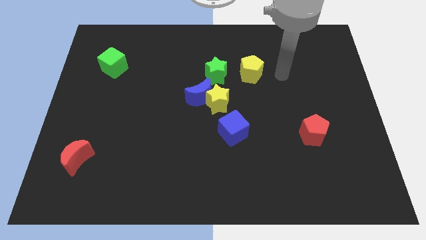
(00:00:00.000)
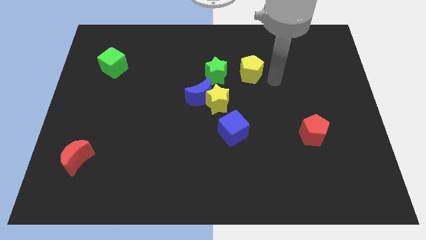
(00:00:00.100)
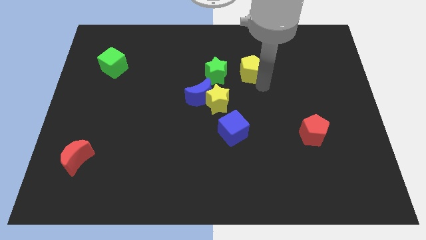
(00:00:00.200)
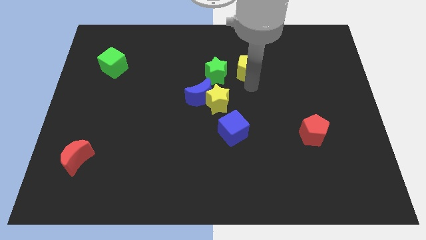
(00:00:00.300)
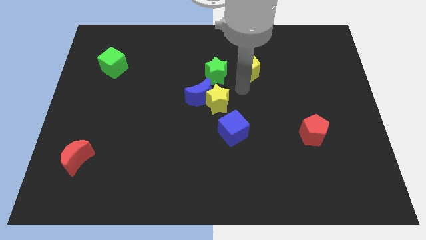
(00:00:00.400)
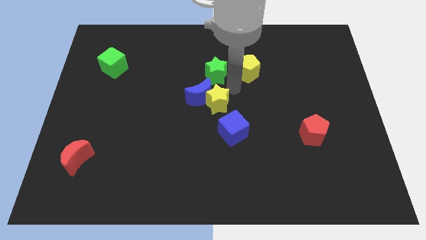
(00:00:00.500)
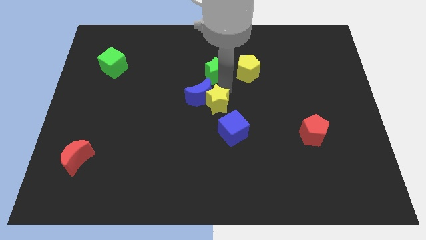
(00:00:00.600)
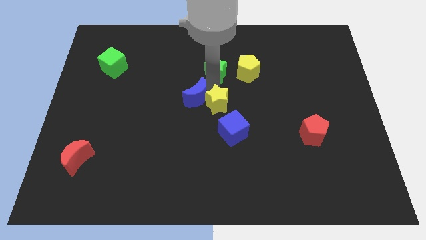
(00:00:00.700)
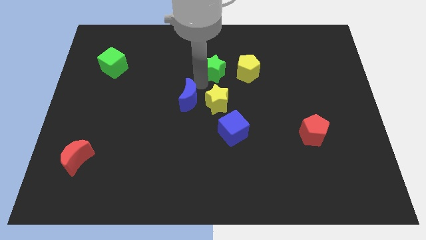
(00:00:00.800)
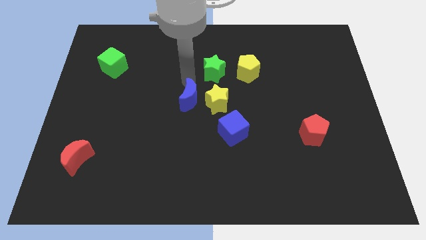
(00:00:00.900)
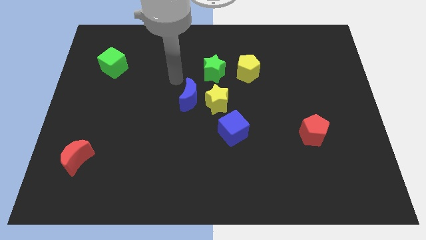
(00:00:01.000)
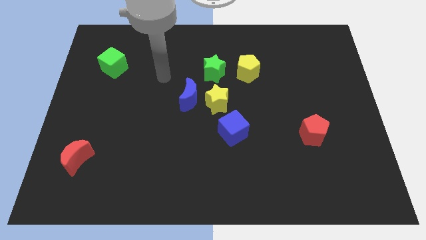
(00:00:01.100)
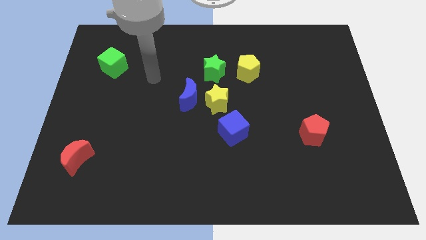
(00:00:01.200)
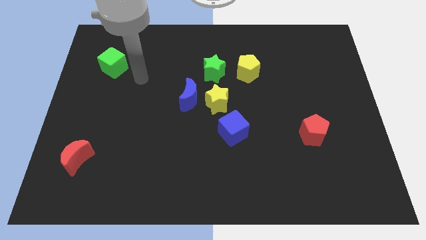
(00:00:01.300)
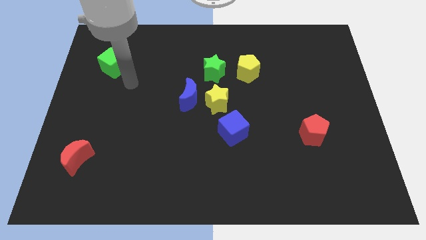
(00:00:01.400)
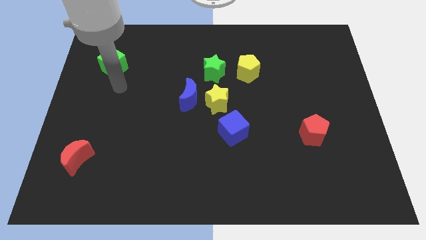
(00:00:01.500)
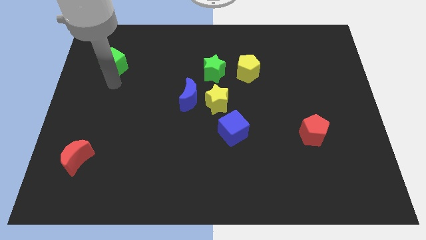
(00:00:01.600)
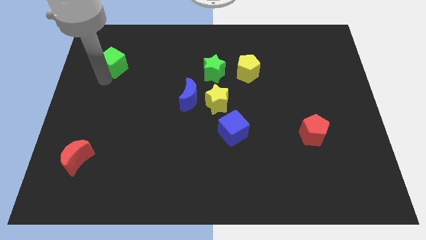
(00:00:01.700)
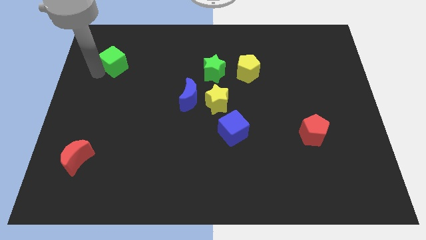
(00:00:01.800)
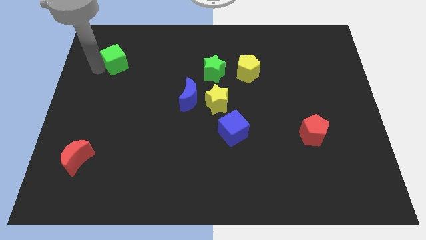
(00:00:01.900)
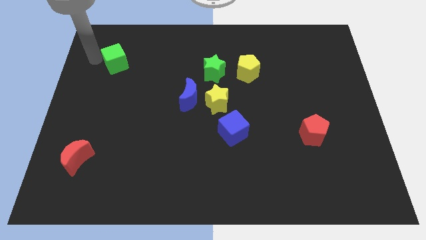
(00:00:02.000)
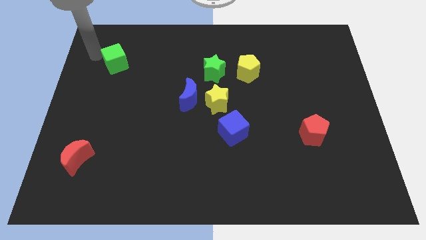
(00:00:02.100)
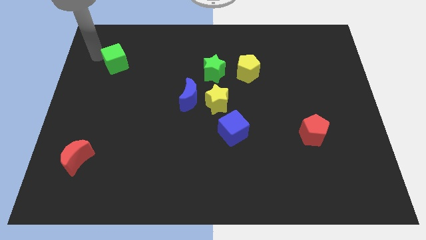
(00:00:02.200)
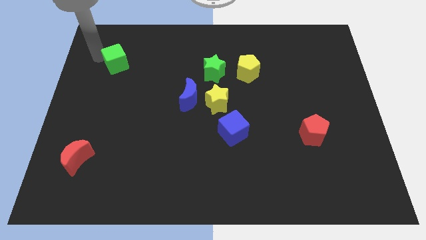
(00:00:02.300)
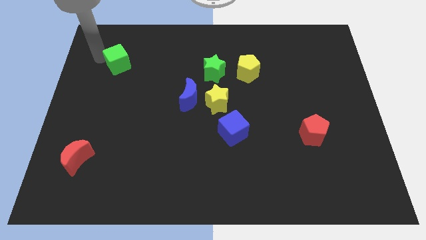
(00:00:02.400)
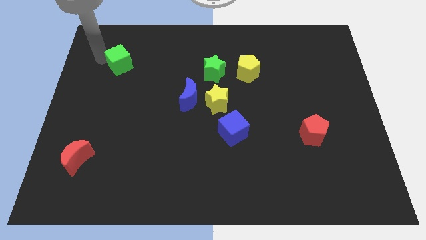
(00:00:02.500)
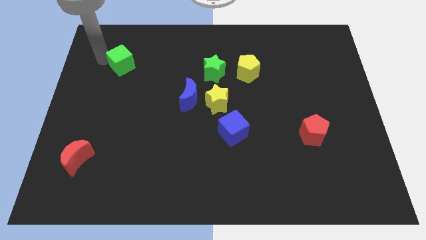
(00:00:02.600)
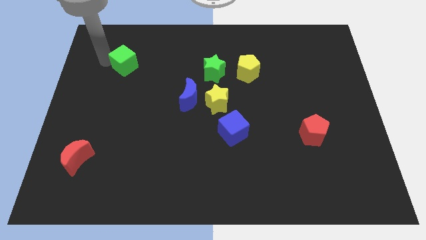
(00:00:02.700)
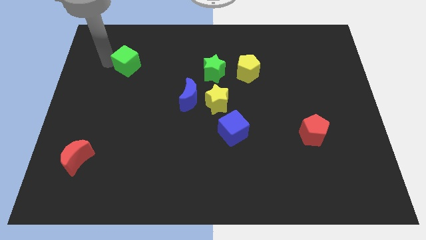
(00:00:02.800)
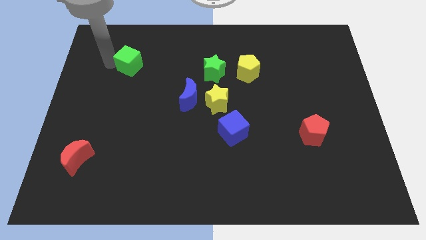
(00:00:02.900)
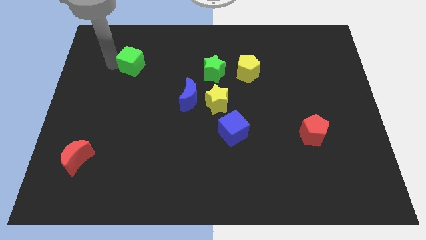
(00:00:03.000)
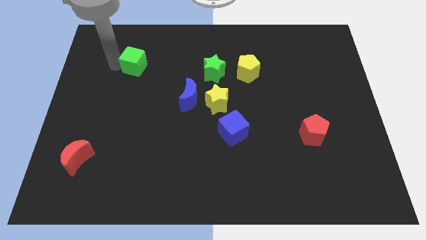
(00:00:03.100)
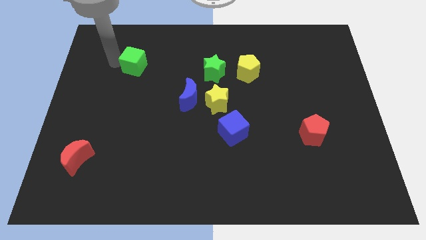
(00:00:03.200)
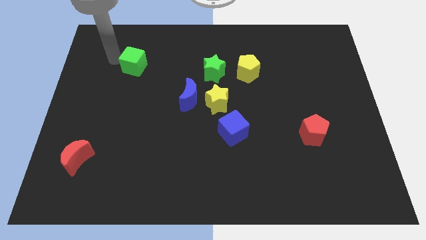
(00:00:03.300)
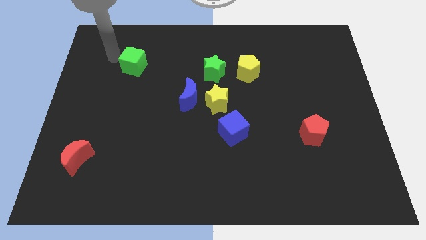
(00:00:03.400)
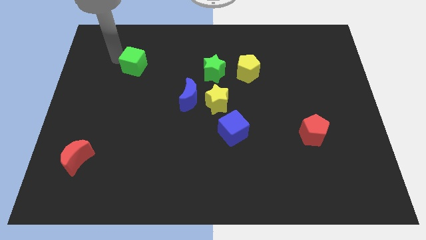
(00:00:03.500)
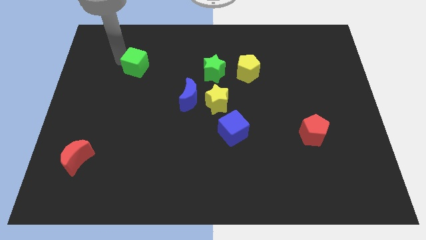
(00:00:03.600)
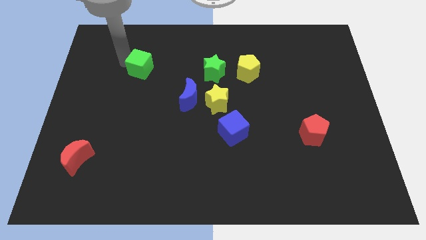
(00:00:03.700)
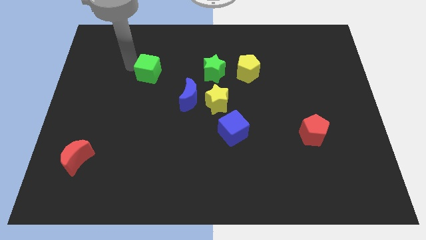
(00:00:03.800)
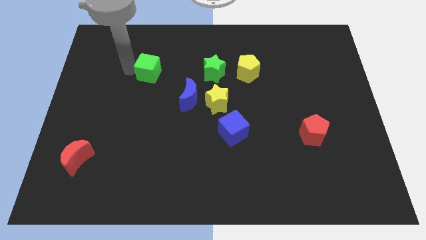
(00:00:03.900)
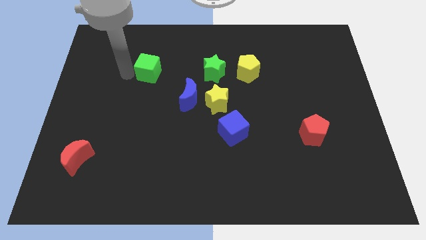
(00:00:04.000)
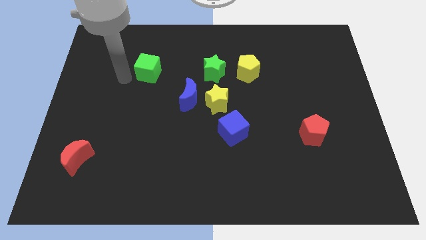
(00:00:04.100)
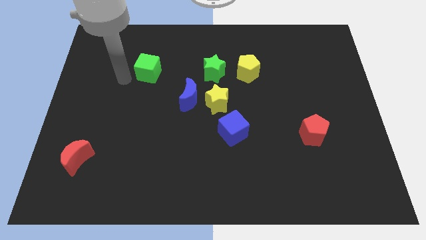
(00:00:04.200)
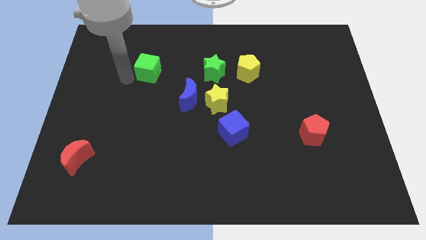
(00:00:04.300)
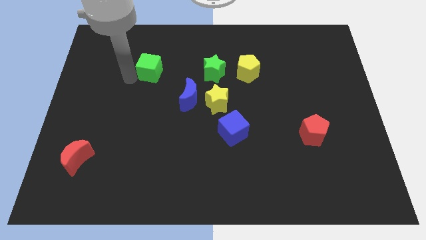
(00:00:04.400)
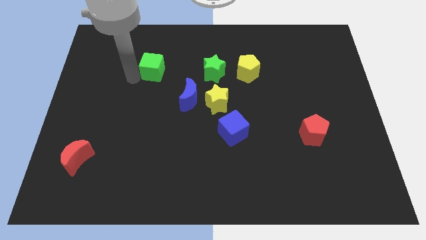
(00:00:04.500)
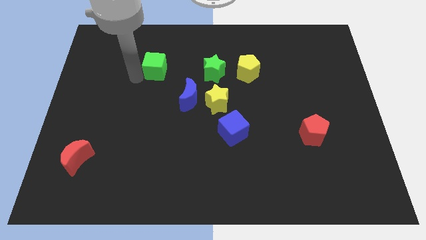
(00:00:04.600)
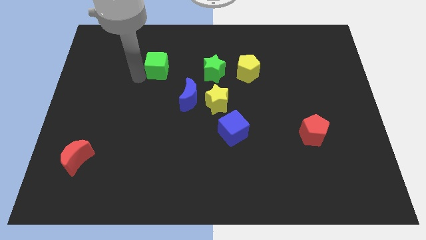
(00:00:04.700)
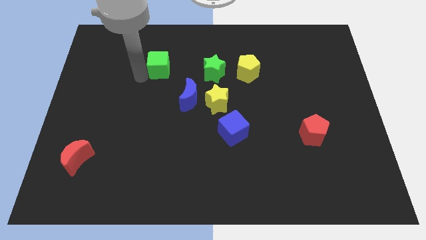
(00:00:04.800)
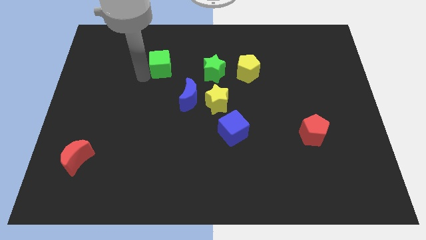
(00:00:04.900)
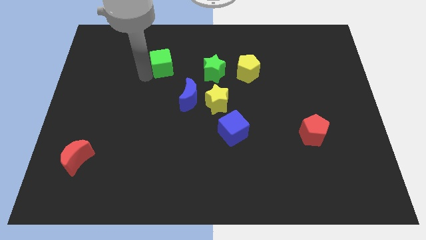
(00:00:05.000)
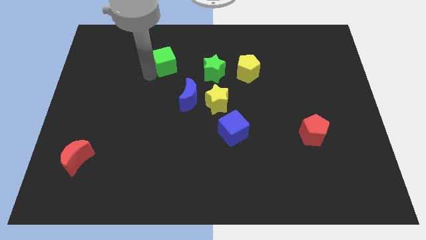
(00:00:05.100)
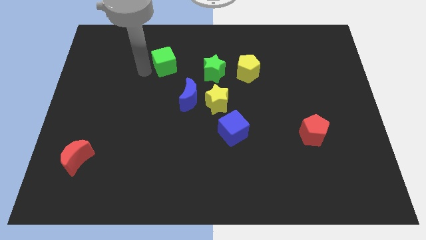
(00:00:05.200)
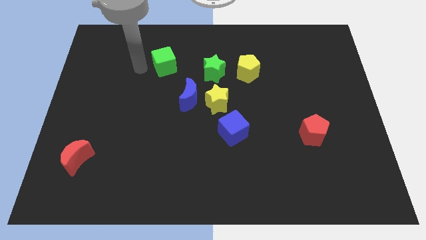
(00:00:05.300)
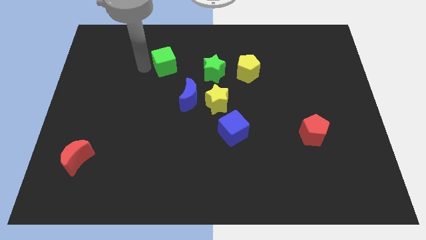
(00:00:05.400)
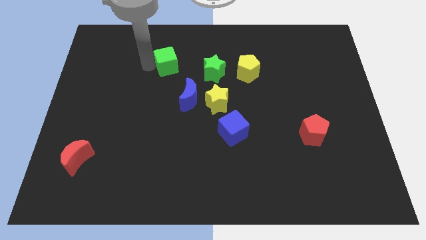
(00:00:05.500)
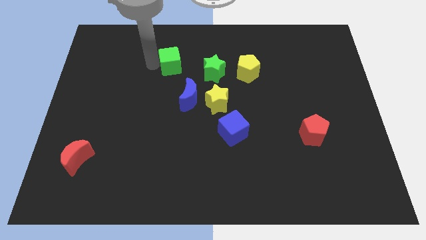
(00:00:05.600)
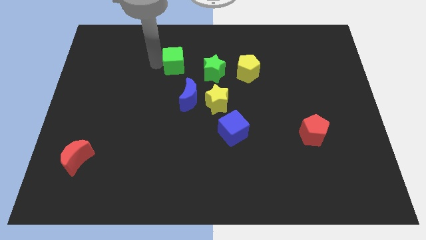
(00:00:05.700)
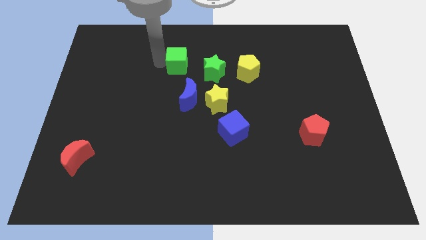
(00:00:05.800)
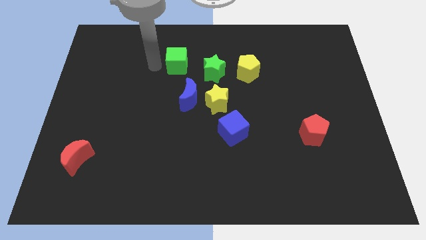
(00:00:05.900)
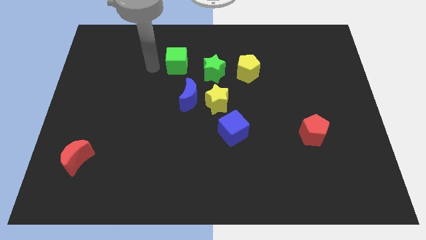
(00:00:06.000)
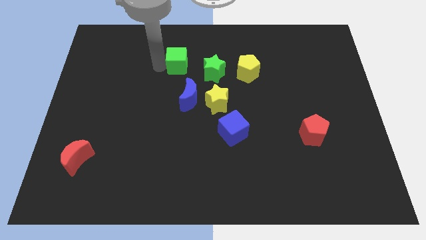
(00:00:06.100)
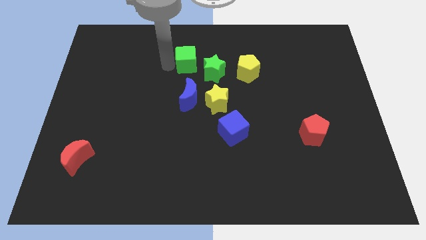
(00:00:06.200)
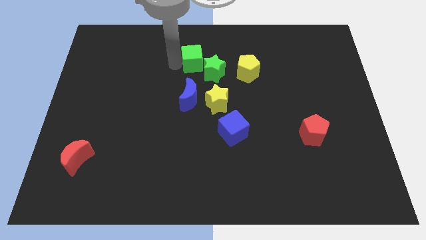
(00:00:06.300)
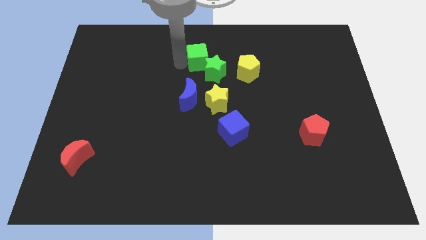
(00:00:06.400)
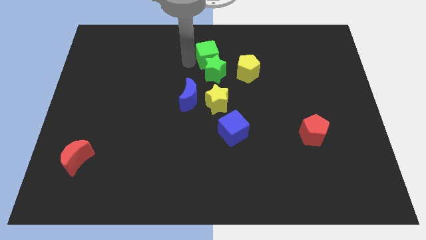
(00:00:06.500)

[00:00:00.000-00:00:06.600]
put the green cube diagonally up and to the right of the green star

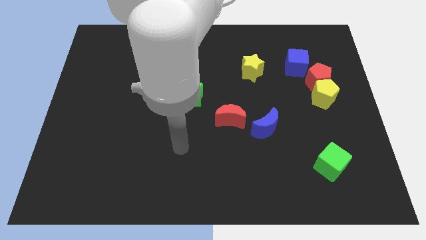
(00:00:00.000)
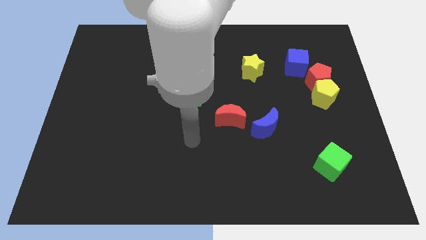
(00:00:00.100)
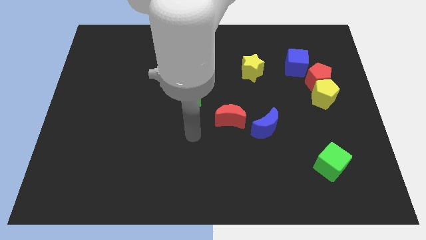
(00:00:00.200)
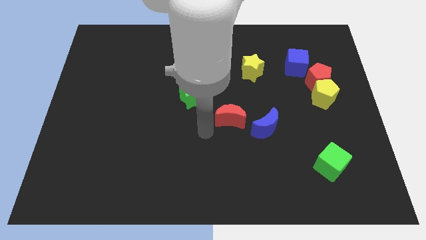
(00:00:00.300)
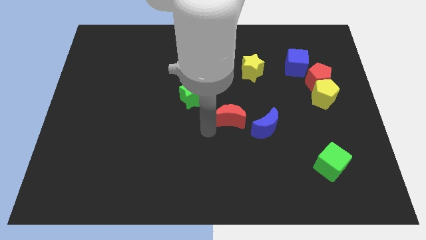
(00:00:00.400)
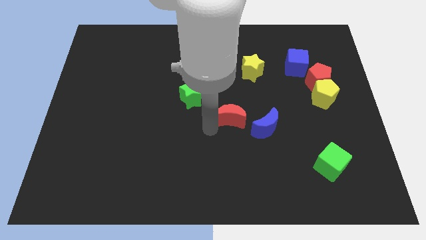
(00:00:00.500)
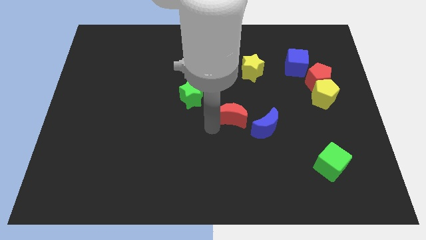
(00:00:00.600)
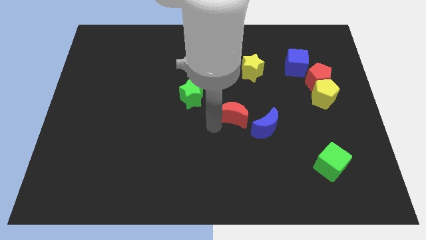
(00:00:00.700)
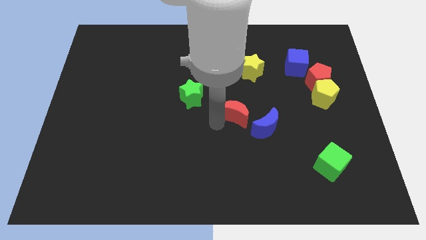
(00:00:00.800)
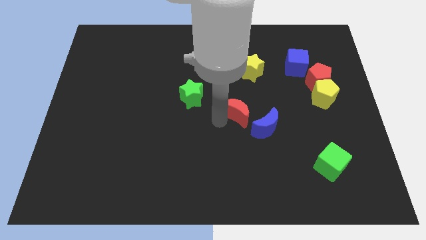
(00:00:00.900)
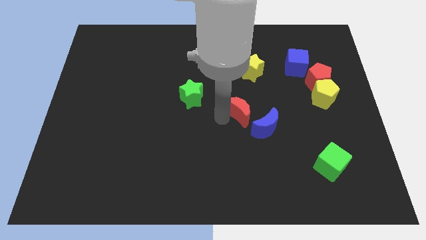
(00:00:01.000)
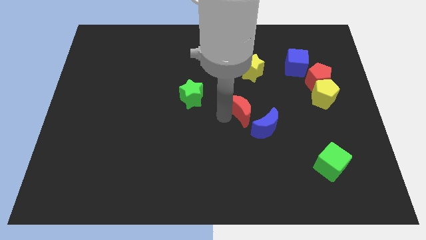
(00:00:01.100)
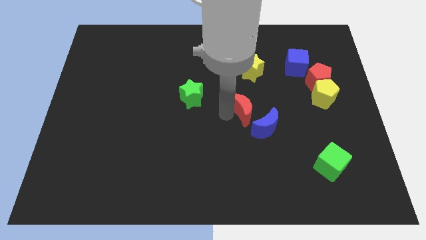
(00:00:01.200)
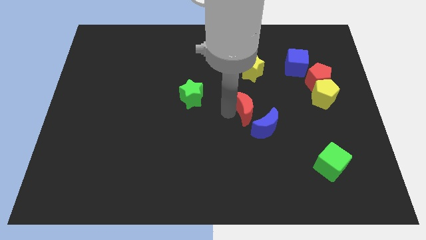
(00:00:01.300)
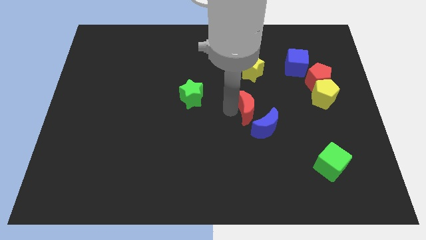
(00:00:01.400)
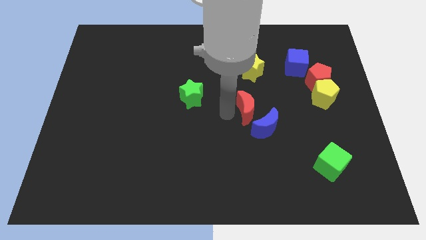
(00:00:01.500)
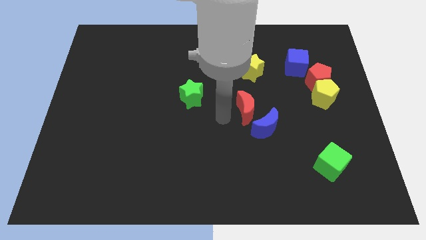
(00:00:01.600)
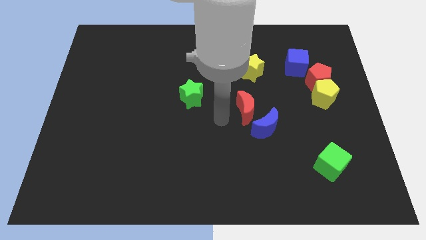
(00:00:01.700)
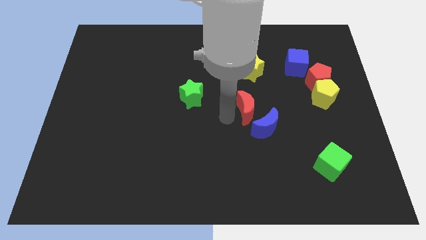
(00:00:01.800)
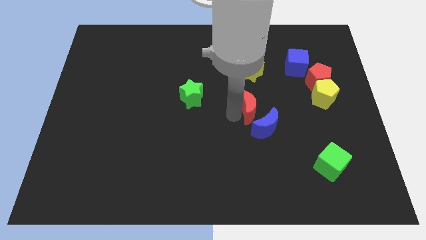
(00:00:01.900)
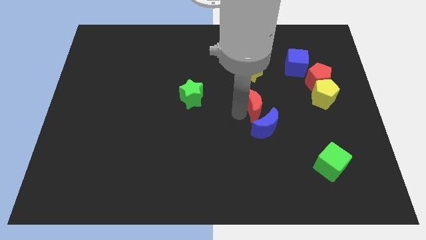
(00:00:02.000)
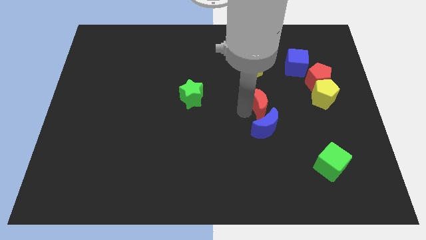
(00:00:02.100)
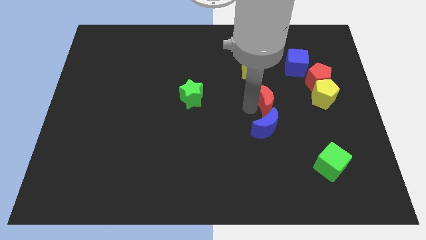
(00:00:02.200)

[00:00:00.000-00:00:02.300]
put the red moon to the top right side of the blue moon
